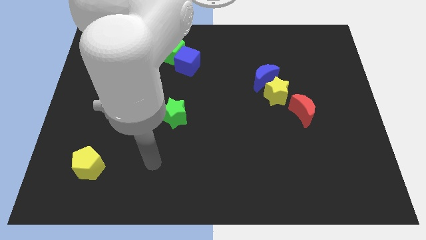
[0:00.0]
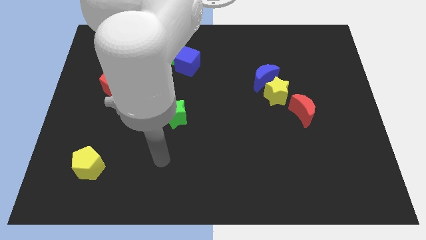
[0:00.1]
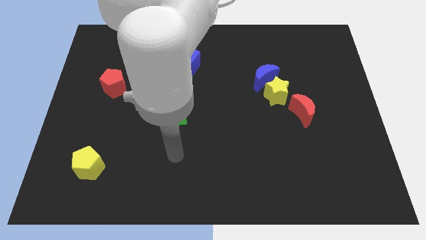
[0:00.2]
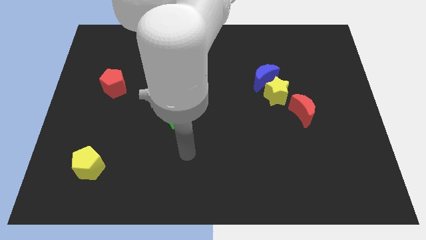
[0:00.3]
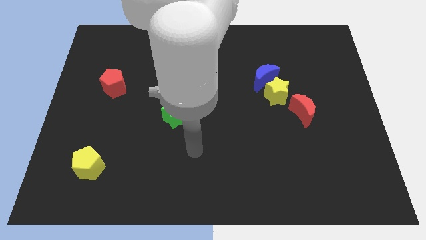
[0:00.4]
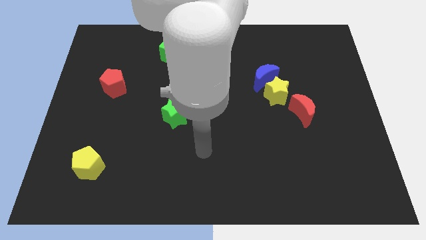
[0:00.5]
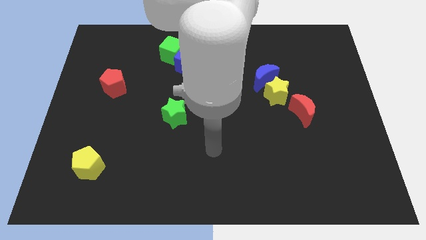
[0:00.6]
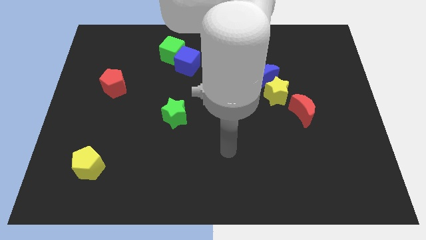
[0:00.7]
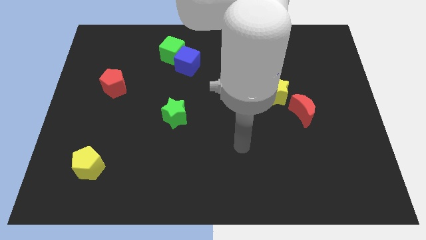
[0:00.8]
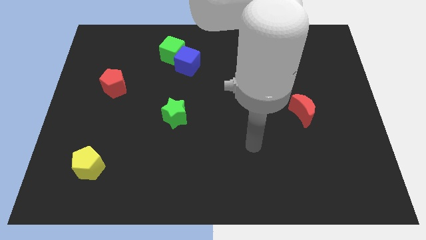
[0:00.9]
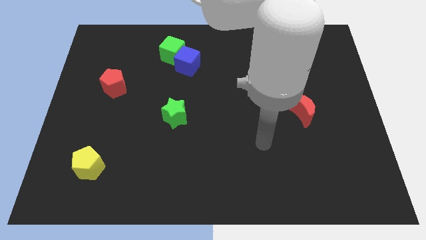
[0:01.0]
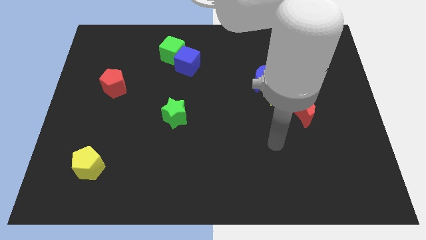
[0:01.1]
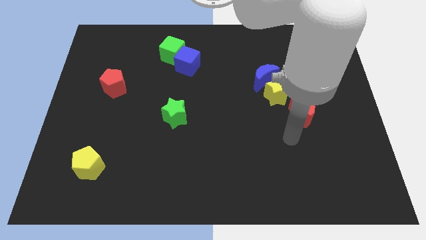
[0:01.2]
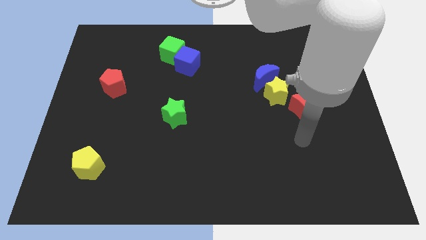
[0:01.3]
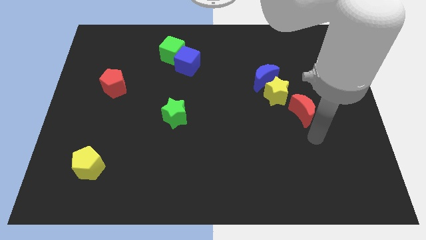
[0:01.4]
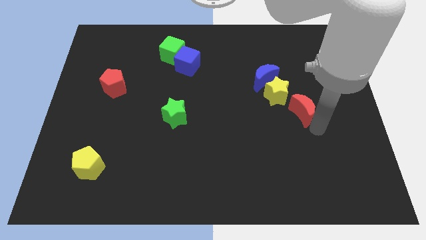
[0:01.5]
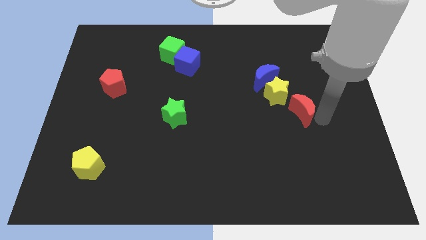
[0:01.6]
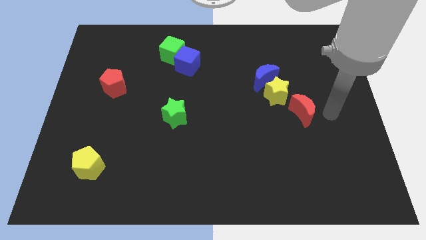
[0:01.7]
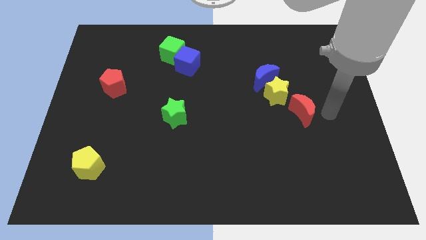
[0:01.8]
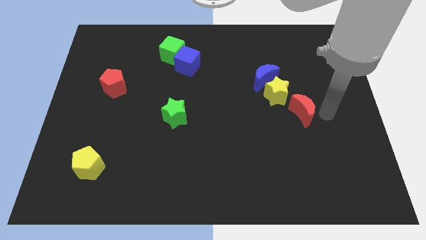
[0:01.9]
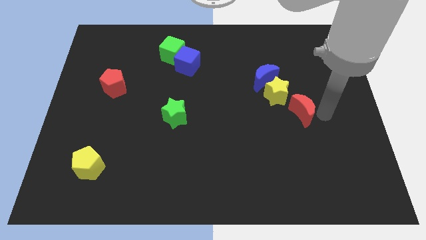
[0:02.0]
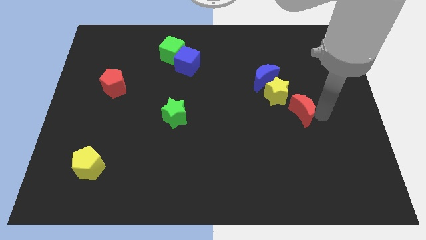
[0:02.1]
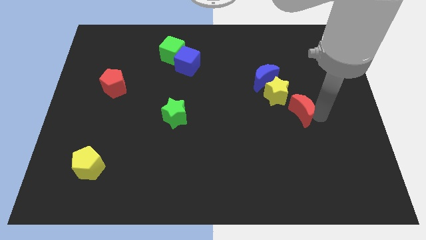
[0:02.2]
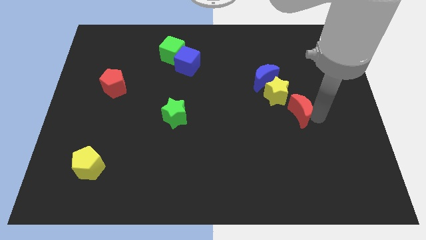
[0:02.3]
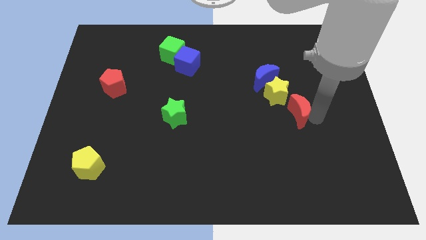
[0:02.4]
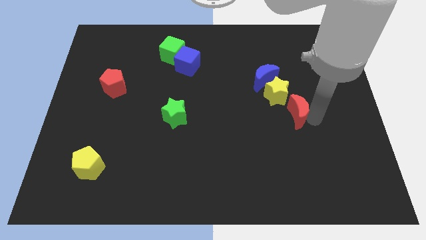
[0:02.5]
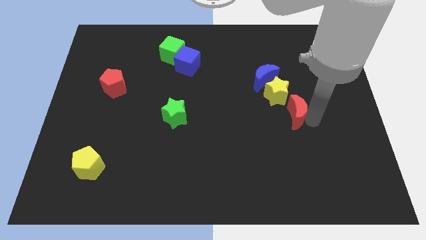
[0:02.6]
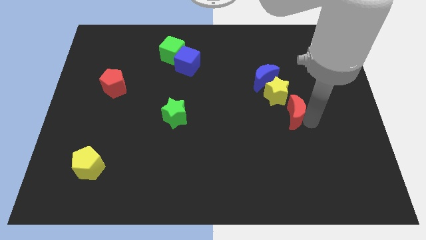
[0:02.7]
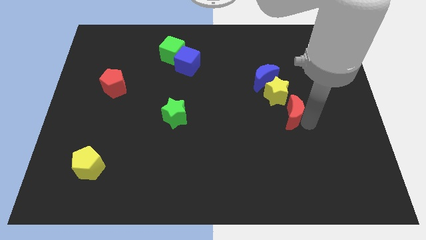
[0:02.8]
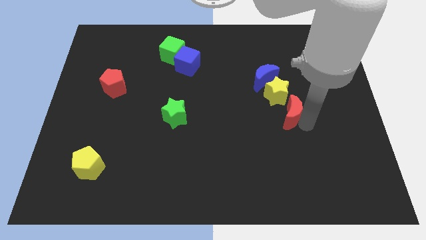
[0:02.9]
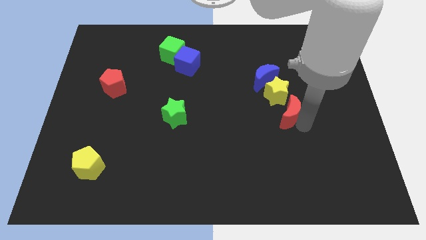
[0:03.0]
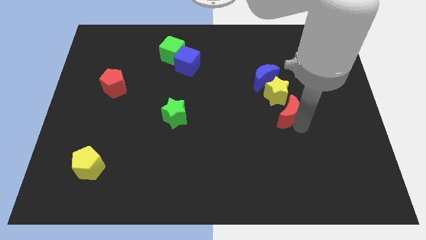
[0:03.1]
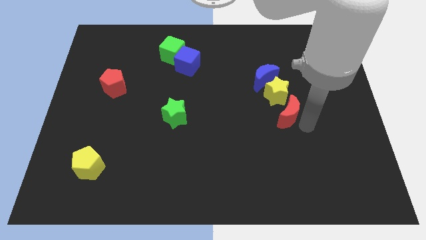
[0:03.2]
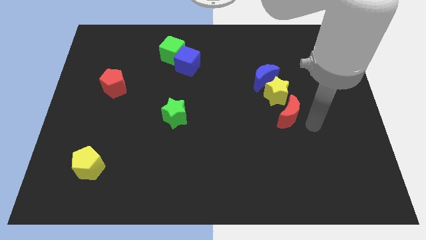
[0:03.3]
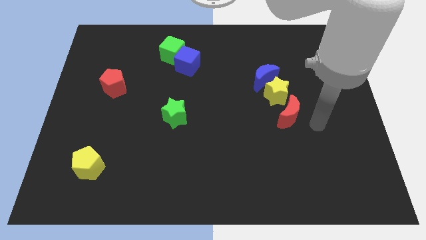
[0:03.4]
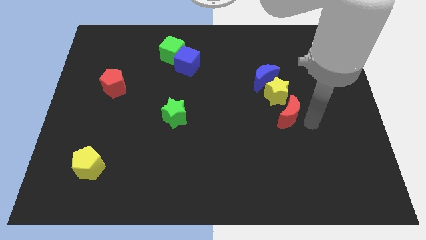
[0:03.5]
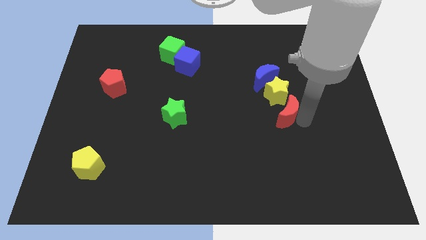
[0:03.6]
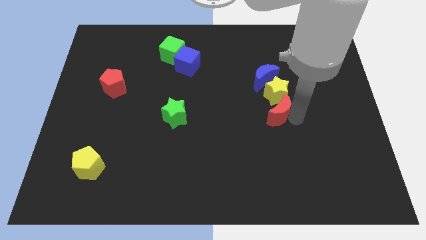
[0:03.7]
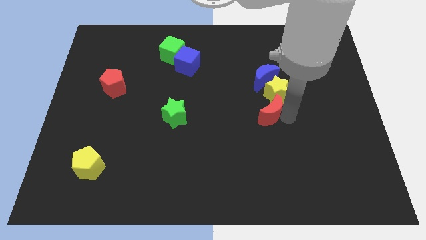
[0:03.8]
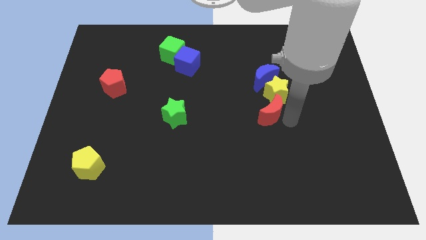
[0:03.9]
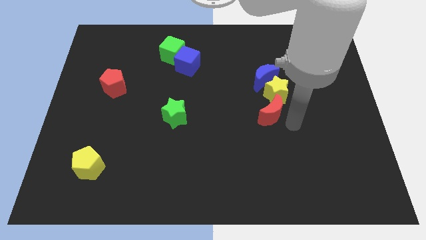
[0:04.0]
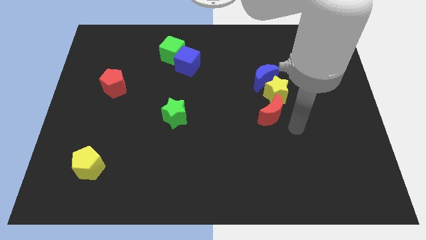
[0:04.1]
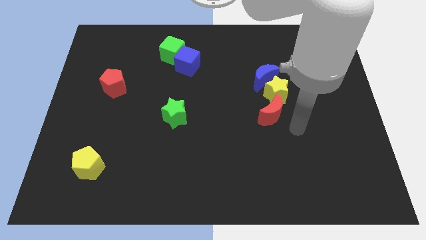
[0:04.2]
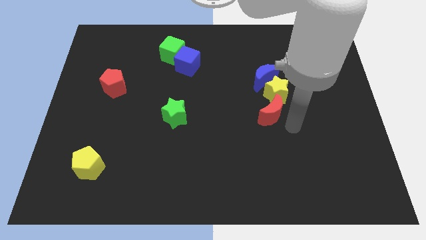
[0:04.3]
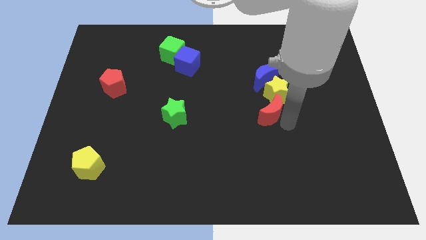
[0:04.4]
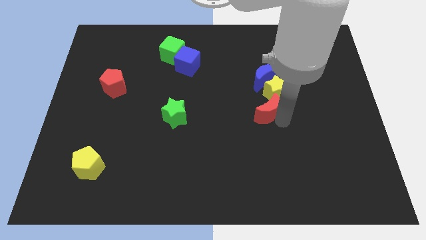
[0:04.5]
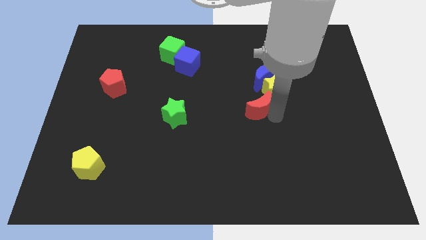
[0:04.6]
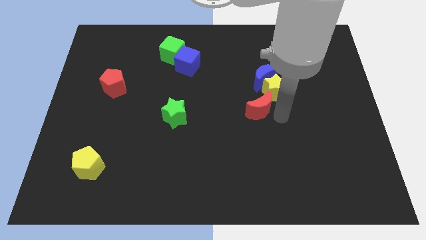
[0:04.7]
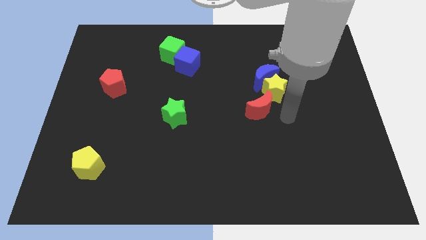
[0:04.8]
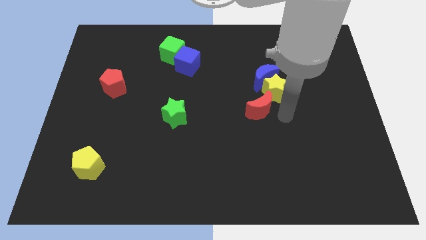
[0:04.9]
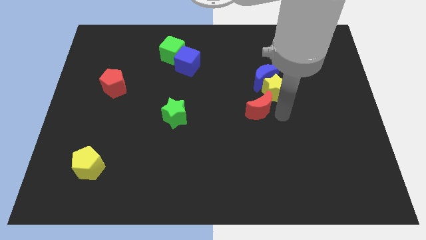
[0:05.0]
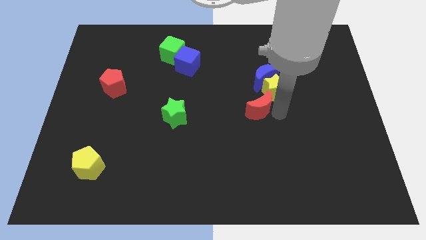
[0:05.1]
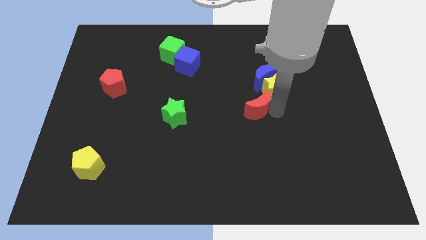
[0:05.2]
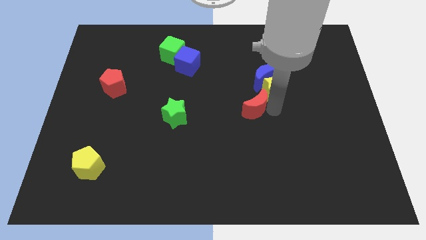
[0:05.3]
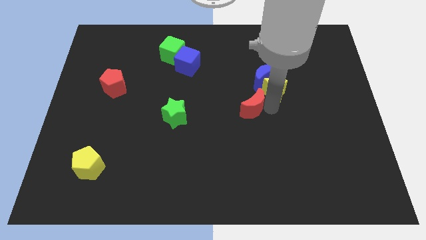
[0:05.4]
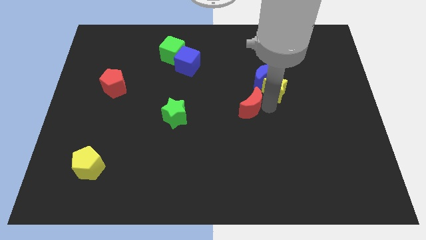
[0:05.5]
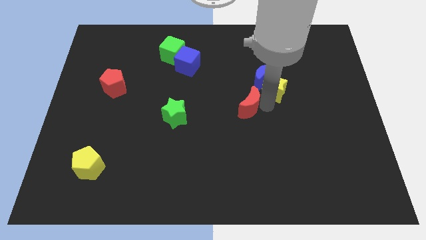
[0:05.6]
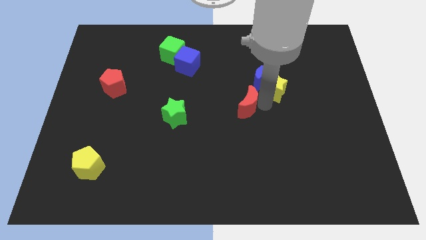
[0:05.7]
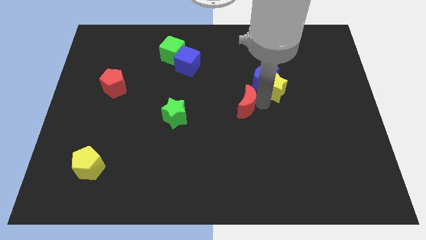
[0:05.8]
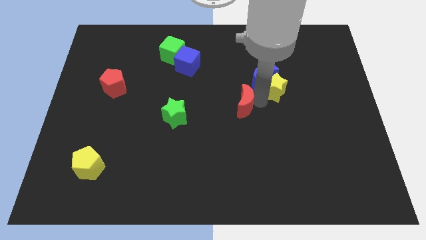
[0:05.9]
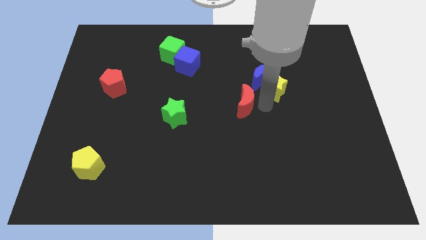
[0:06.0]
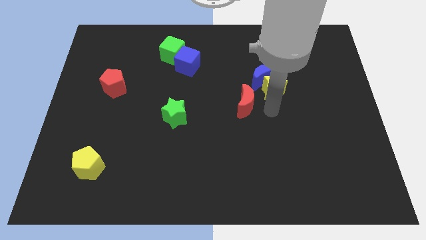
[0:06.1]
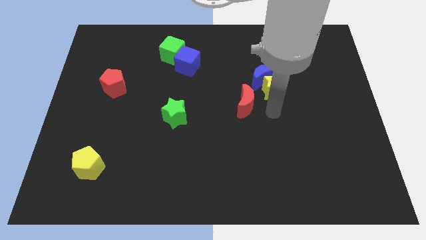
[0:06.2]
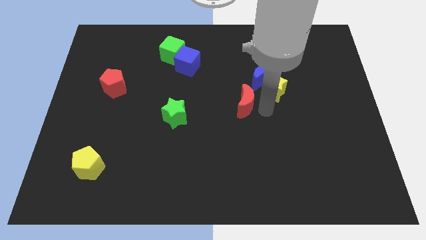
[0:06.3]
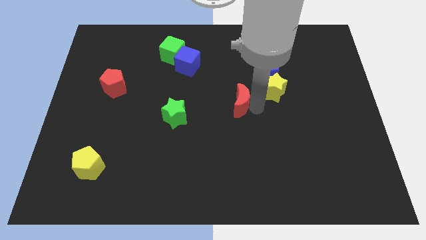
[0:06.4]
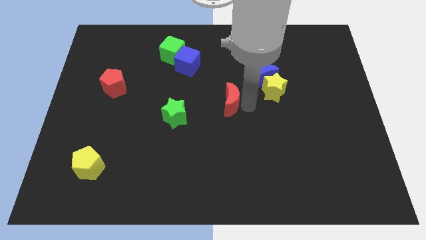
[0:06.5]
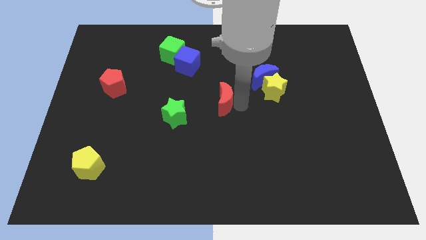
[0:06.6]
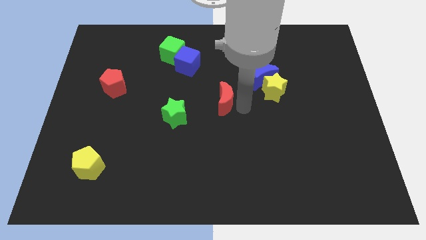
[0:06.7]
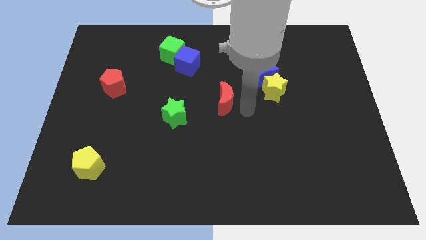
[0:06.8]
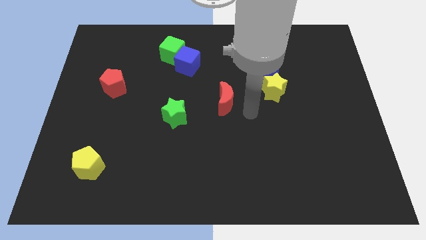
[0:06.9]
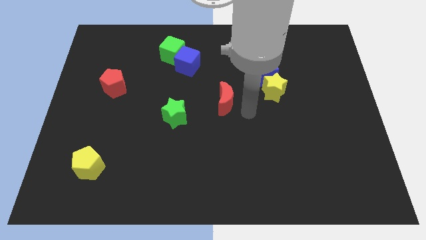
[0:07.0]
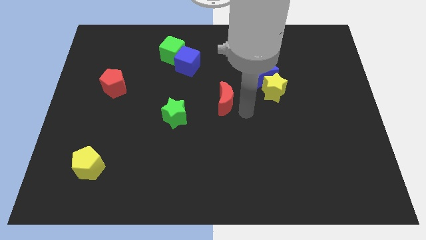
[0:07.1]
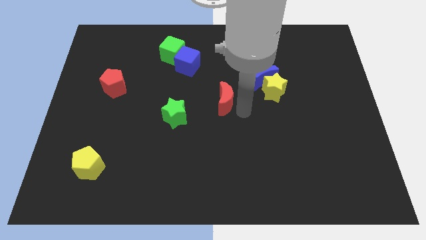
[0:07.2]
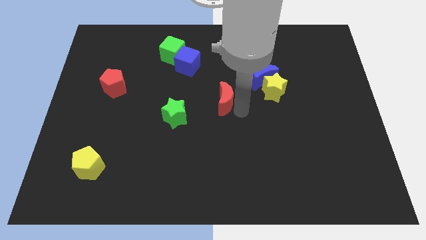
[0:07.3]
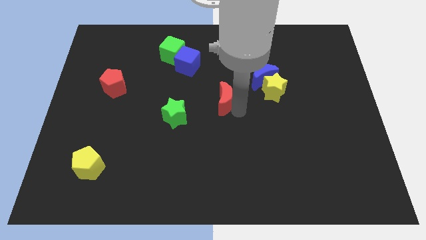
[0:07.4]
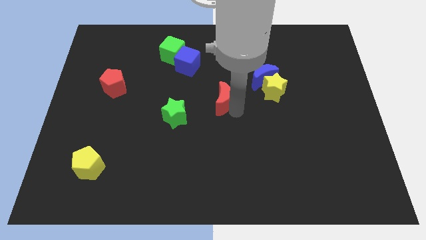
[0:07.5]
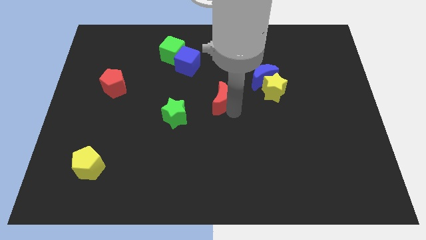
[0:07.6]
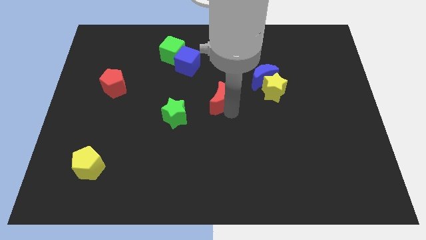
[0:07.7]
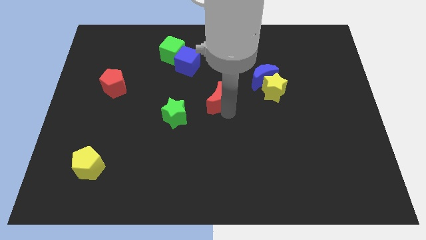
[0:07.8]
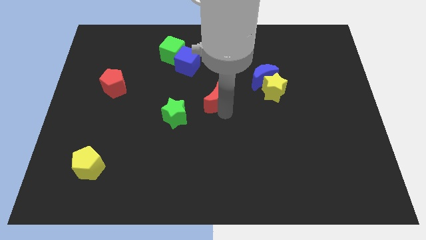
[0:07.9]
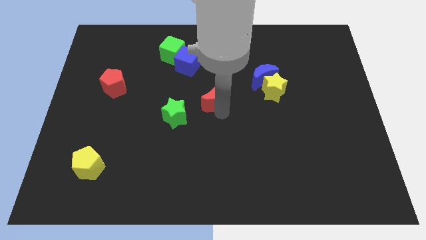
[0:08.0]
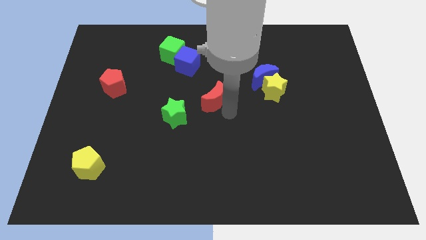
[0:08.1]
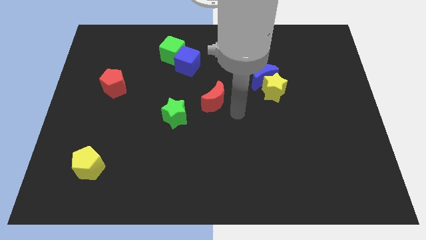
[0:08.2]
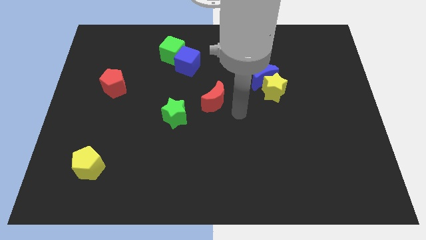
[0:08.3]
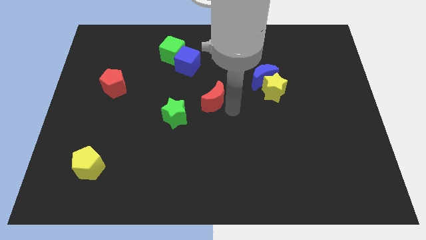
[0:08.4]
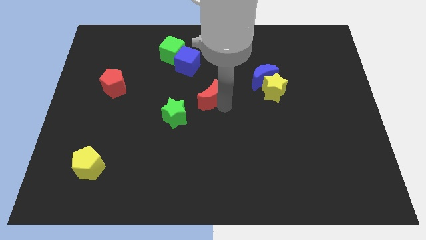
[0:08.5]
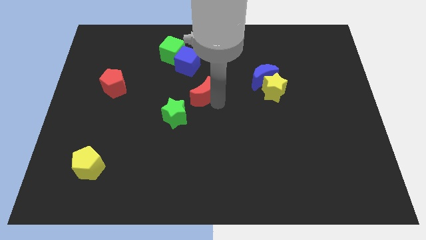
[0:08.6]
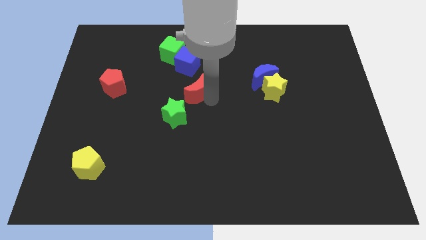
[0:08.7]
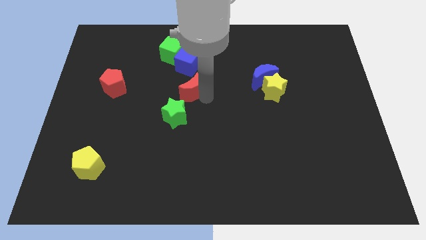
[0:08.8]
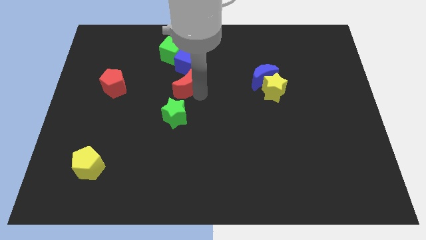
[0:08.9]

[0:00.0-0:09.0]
push the red moon below the green cube
